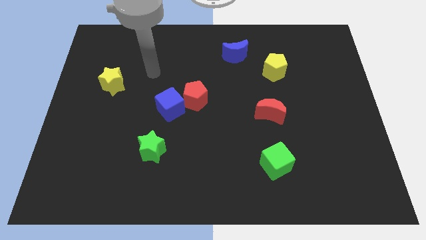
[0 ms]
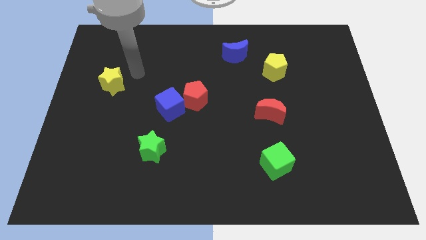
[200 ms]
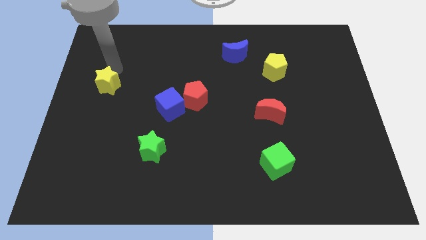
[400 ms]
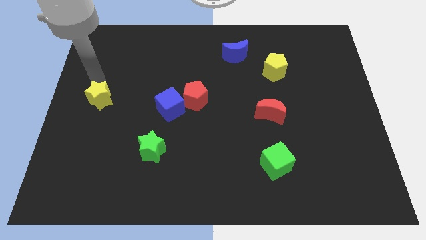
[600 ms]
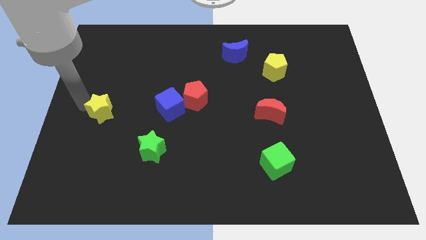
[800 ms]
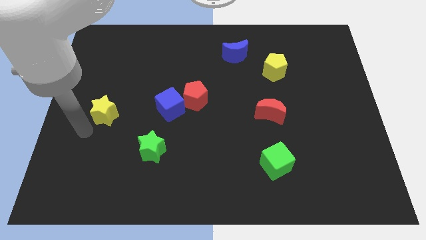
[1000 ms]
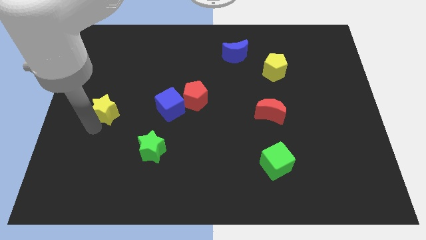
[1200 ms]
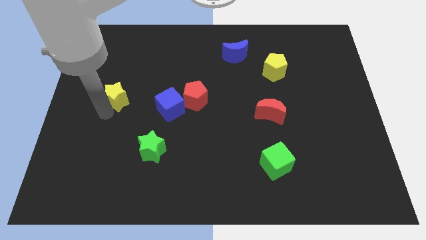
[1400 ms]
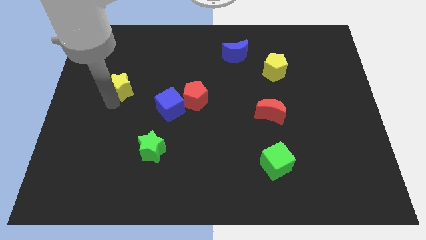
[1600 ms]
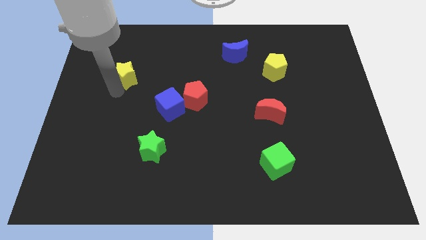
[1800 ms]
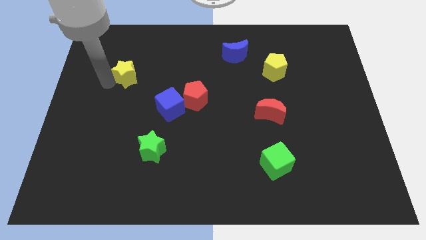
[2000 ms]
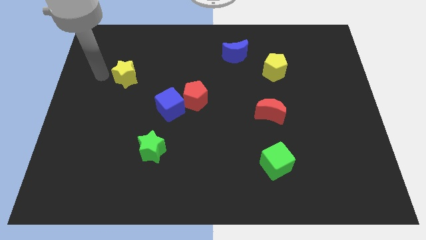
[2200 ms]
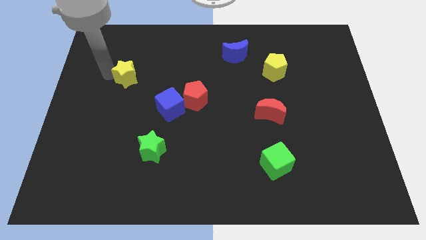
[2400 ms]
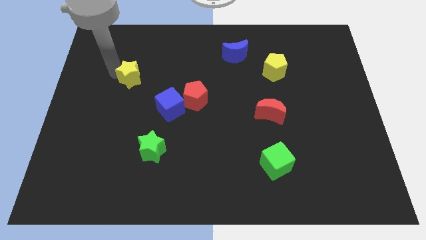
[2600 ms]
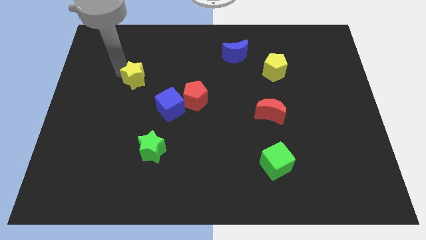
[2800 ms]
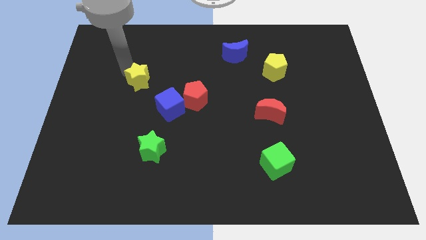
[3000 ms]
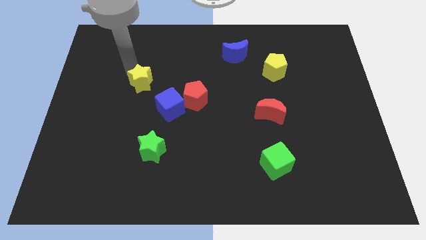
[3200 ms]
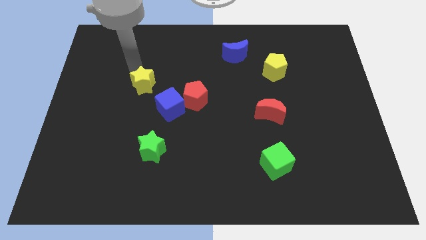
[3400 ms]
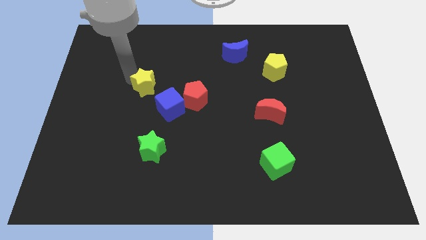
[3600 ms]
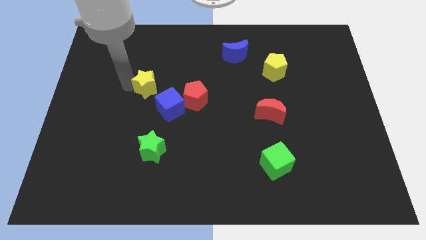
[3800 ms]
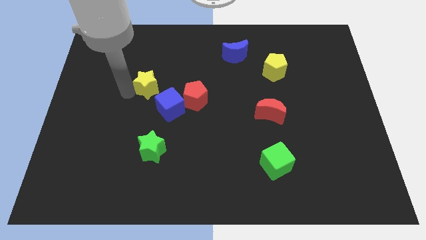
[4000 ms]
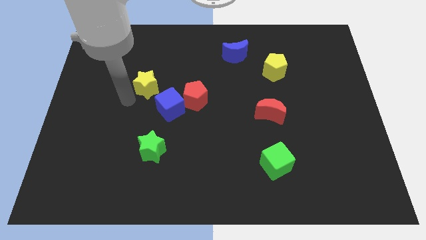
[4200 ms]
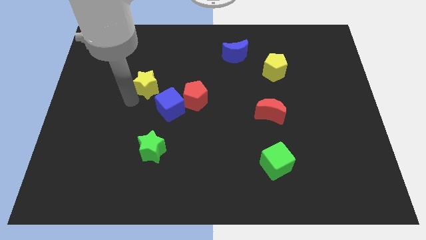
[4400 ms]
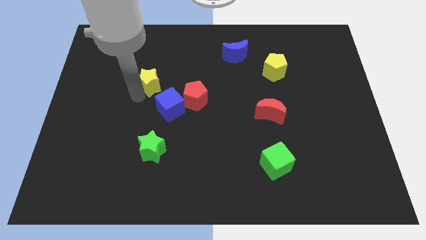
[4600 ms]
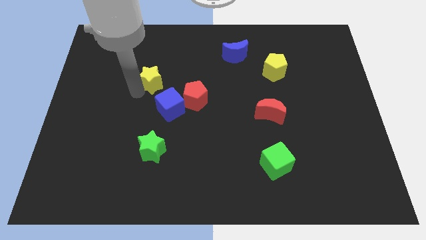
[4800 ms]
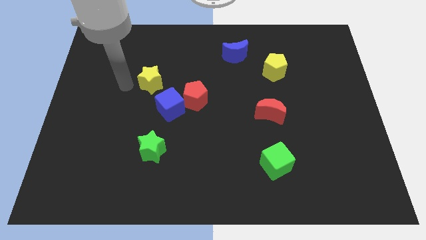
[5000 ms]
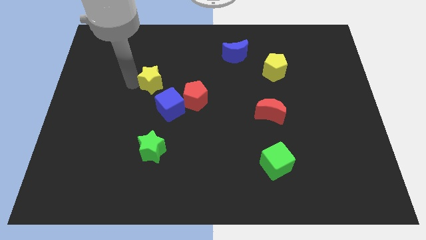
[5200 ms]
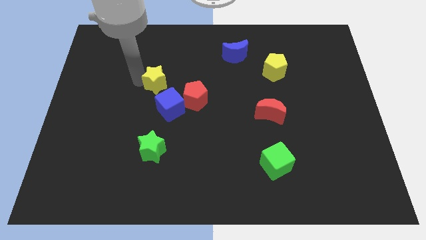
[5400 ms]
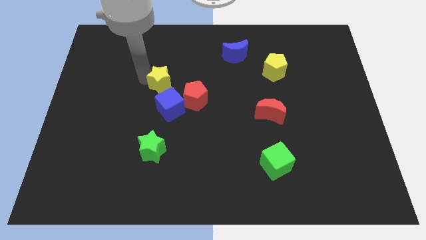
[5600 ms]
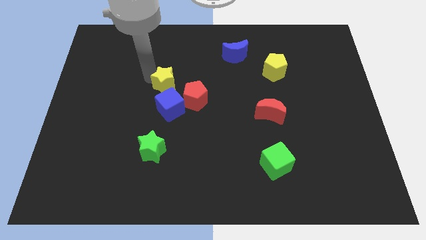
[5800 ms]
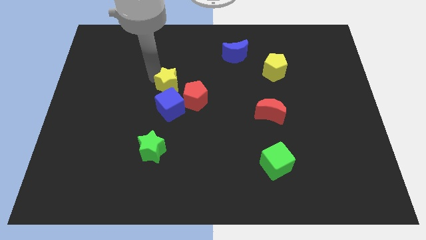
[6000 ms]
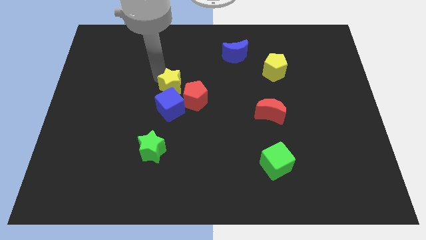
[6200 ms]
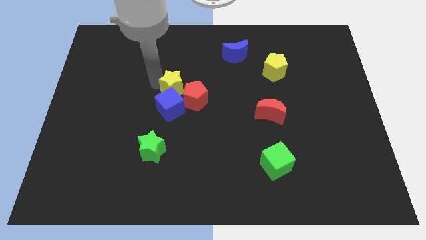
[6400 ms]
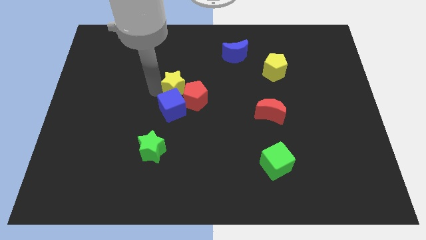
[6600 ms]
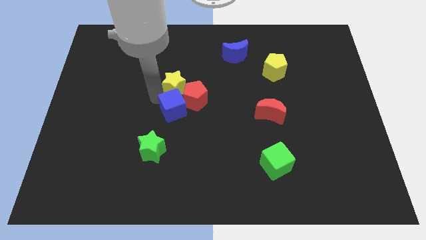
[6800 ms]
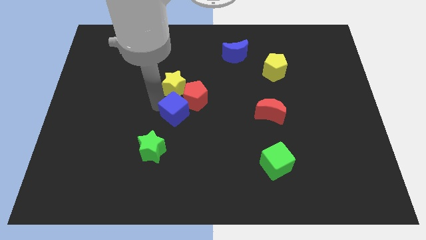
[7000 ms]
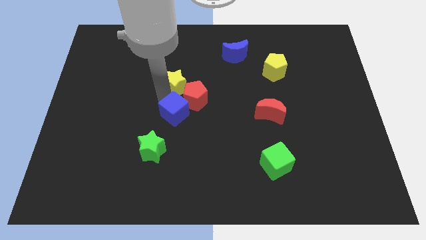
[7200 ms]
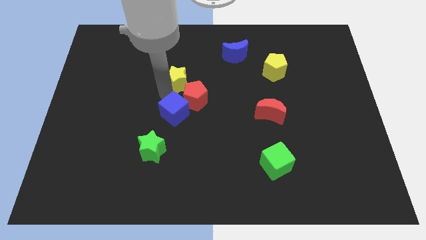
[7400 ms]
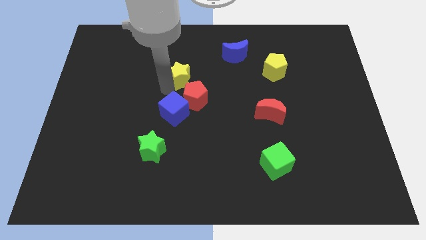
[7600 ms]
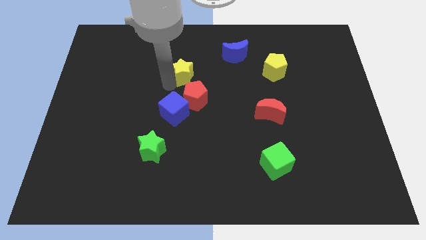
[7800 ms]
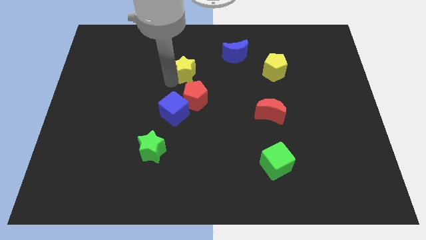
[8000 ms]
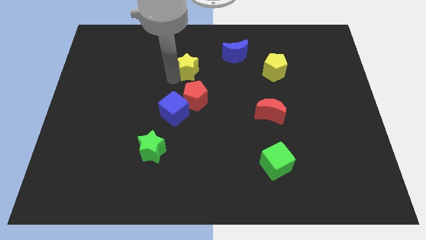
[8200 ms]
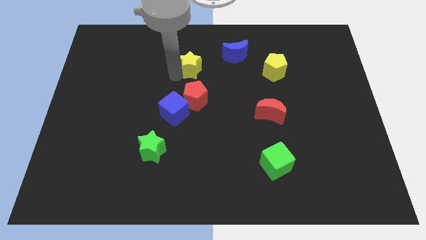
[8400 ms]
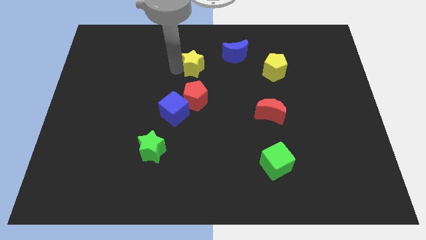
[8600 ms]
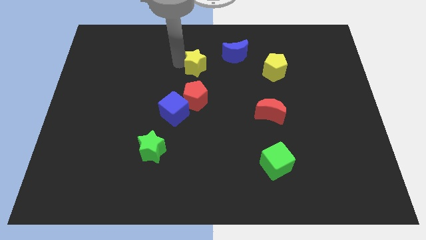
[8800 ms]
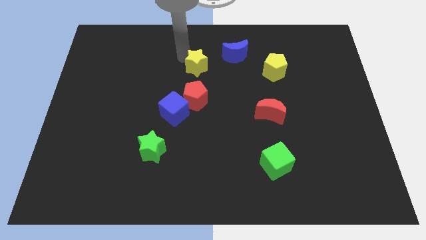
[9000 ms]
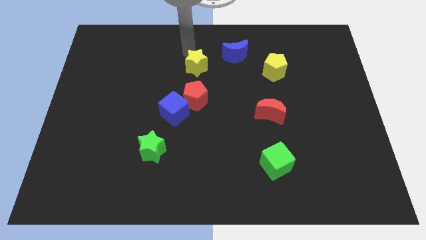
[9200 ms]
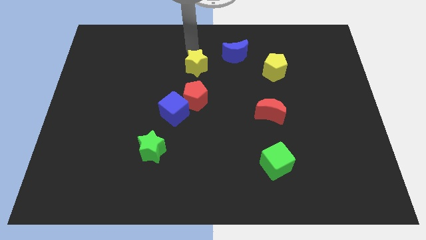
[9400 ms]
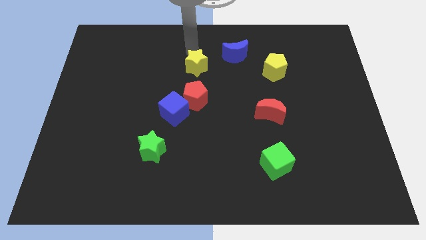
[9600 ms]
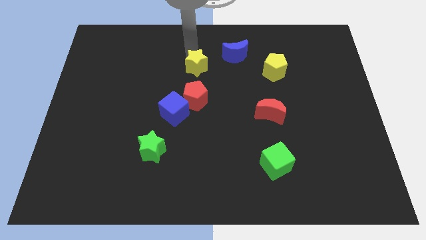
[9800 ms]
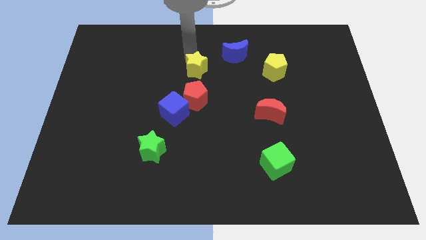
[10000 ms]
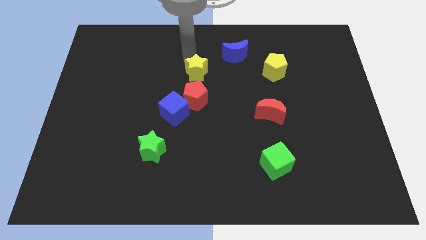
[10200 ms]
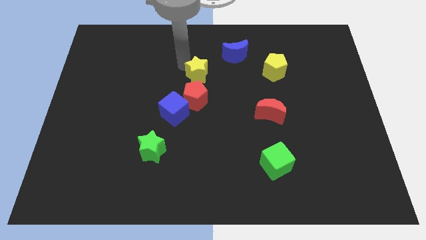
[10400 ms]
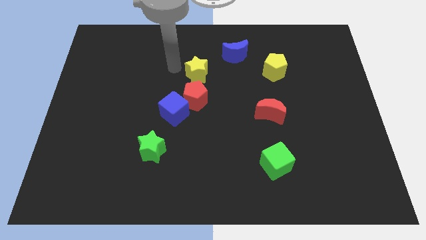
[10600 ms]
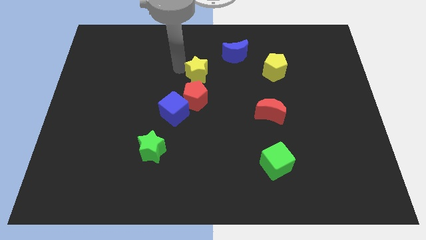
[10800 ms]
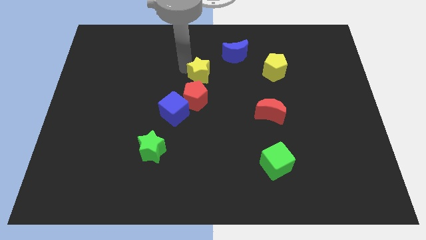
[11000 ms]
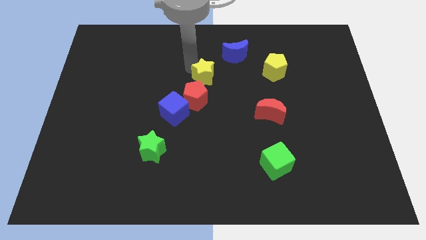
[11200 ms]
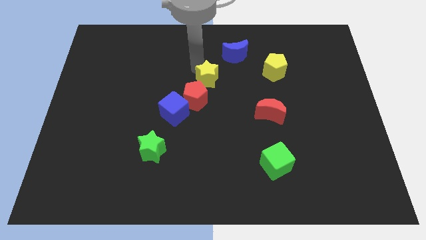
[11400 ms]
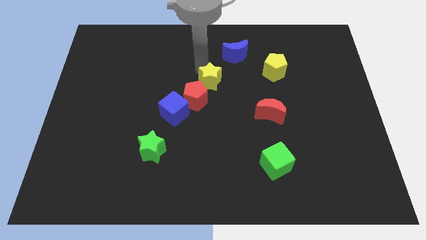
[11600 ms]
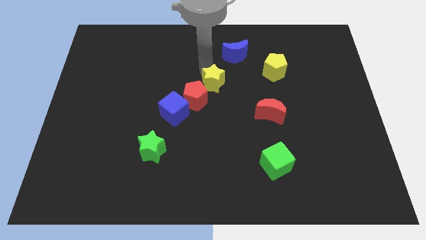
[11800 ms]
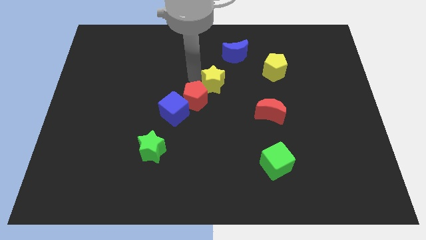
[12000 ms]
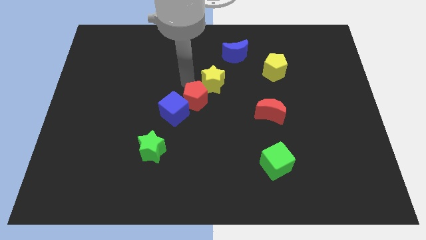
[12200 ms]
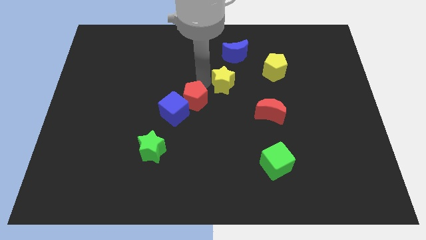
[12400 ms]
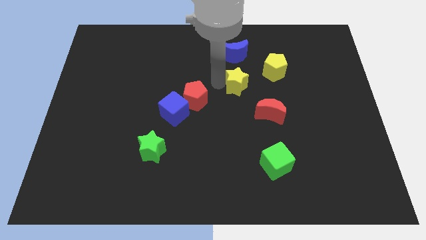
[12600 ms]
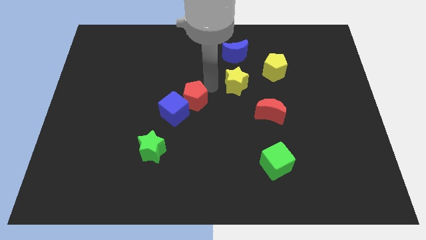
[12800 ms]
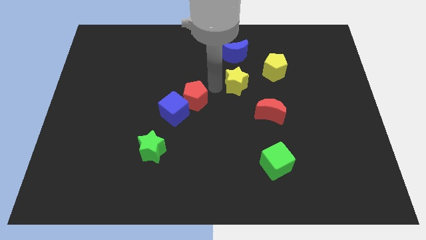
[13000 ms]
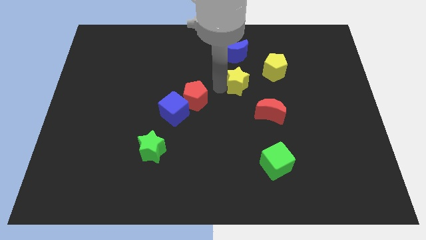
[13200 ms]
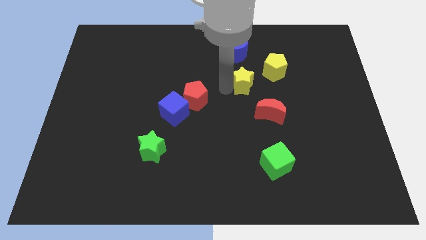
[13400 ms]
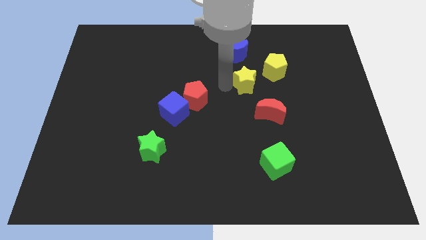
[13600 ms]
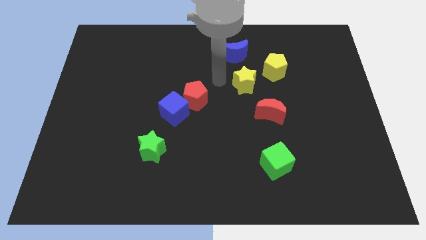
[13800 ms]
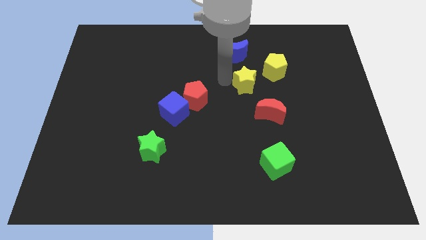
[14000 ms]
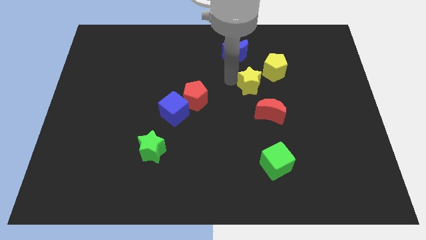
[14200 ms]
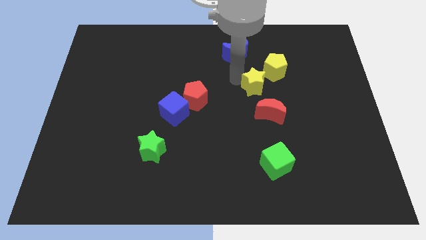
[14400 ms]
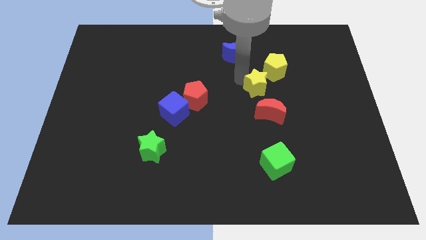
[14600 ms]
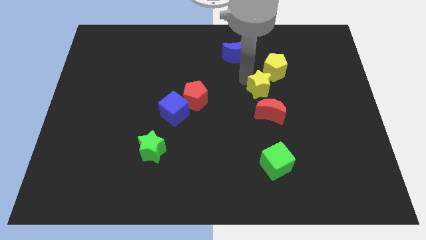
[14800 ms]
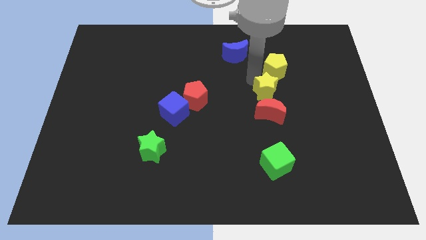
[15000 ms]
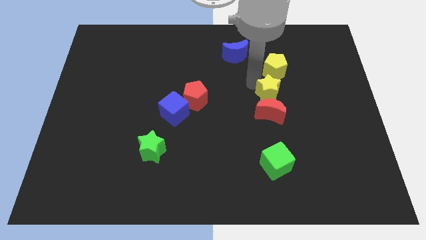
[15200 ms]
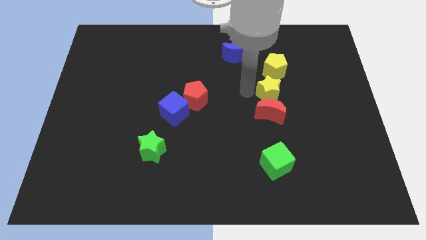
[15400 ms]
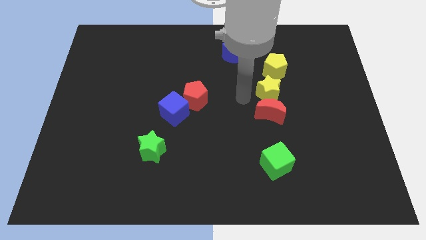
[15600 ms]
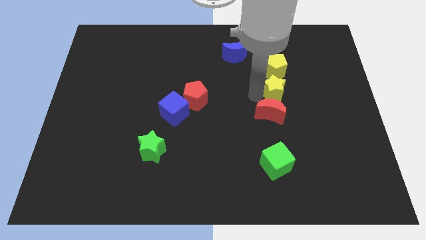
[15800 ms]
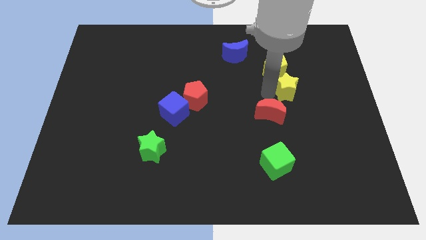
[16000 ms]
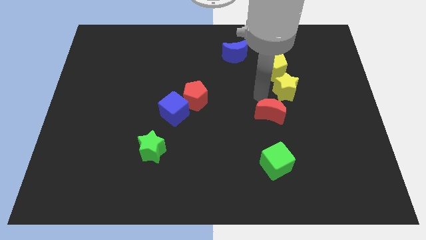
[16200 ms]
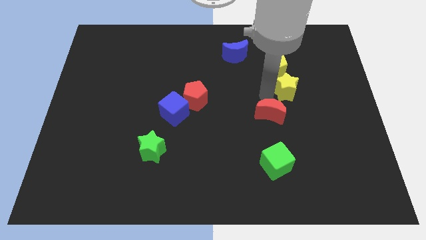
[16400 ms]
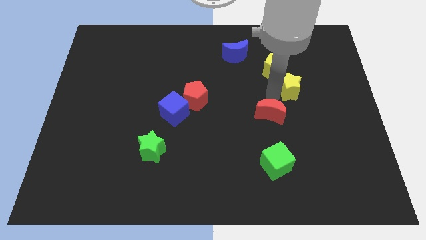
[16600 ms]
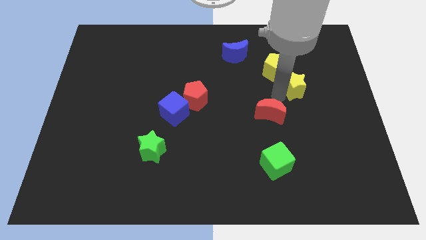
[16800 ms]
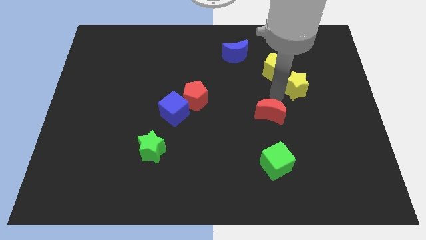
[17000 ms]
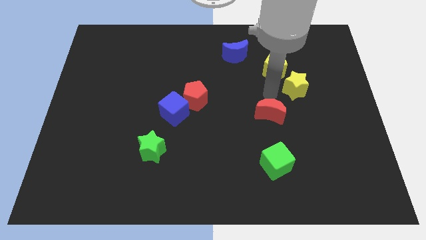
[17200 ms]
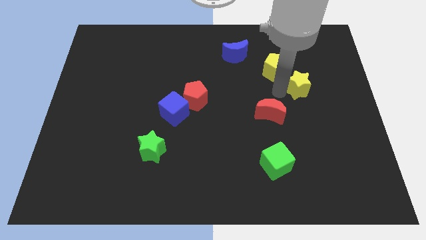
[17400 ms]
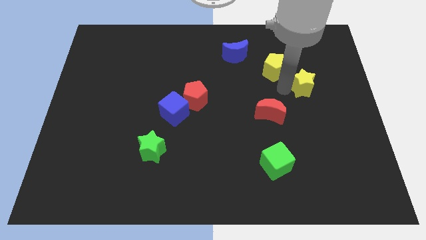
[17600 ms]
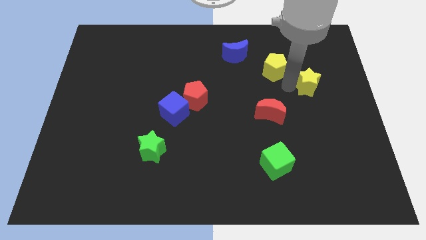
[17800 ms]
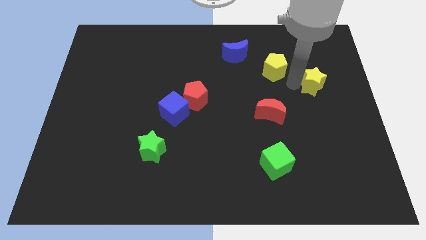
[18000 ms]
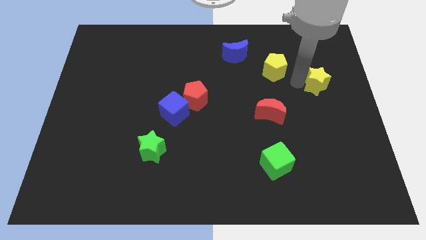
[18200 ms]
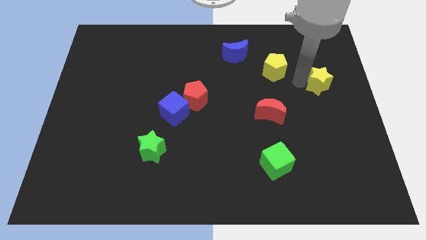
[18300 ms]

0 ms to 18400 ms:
push the yellow star to the right side
